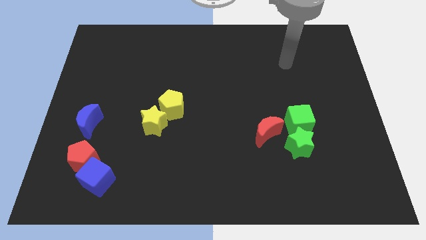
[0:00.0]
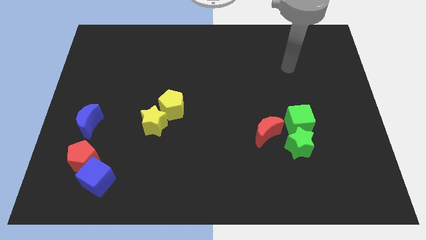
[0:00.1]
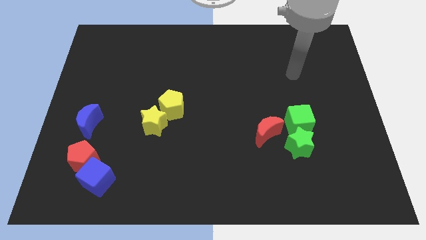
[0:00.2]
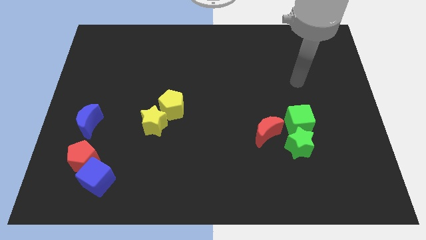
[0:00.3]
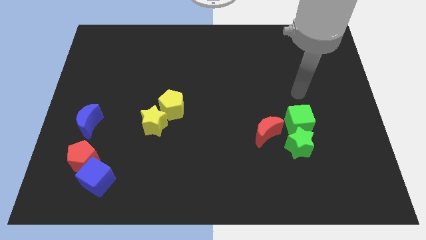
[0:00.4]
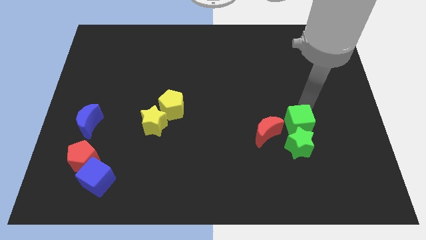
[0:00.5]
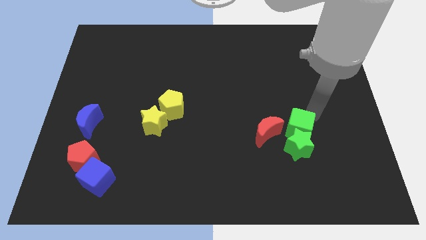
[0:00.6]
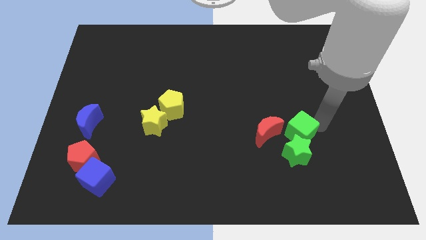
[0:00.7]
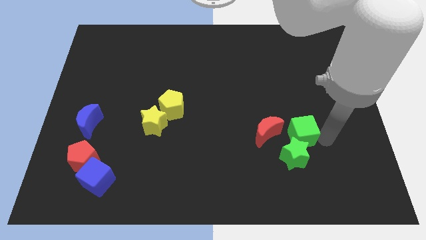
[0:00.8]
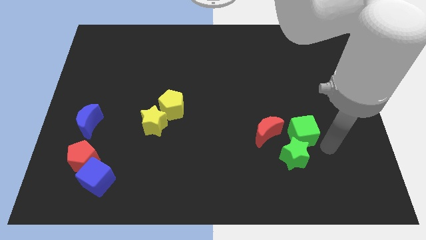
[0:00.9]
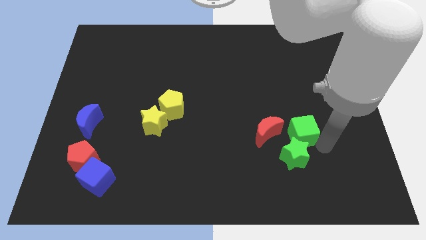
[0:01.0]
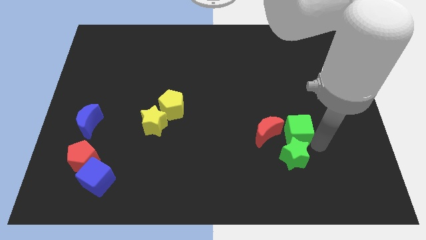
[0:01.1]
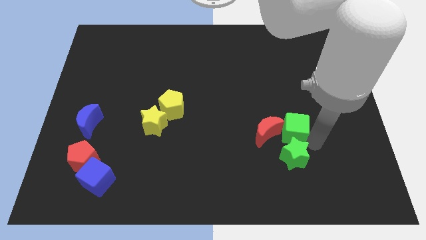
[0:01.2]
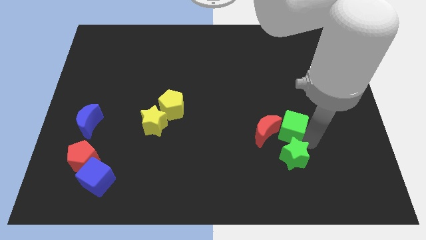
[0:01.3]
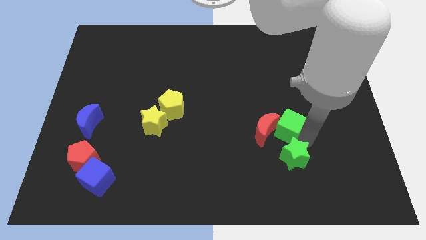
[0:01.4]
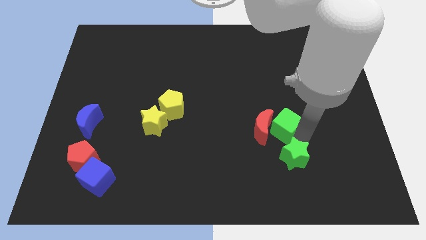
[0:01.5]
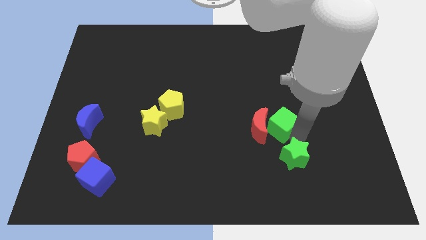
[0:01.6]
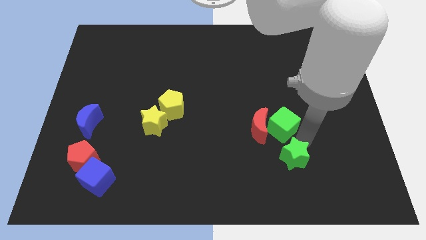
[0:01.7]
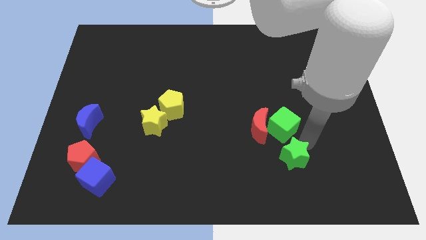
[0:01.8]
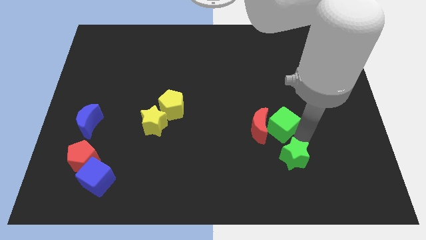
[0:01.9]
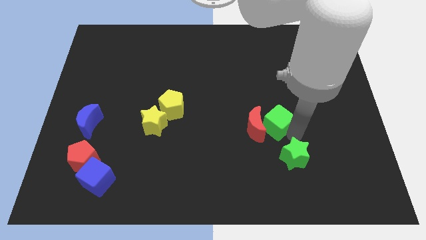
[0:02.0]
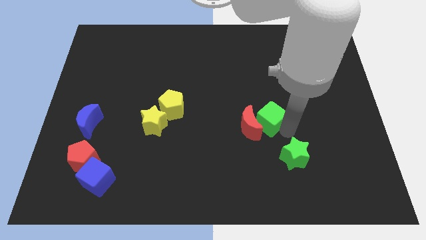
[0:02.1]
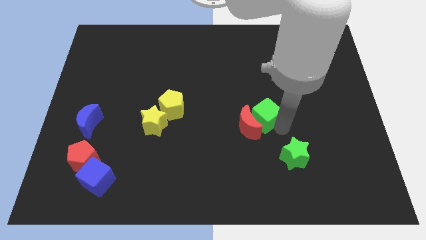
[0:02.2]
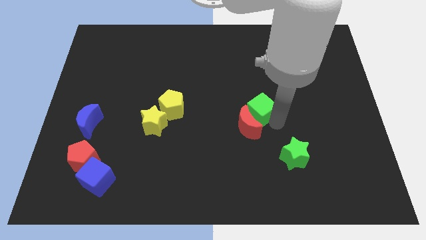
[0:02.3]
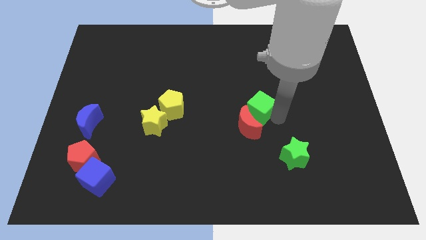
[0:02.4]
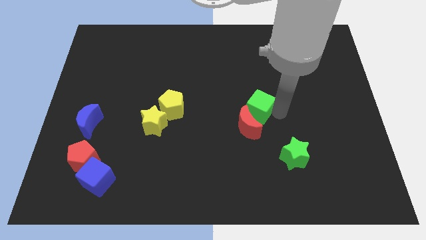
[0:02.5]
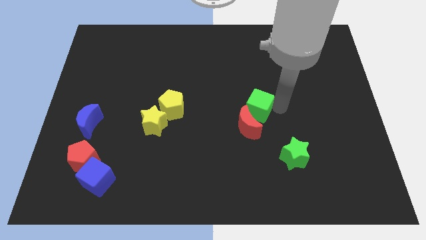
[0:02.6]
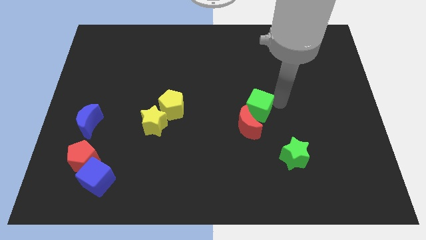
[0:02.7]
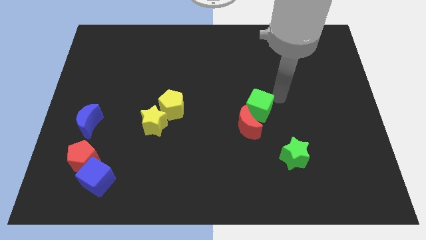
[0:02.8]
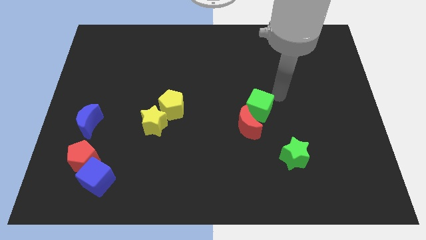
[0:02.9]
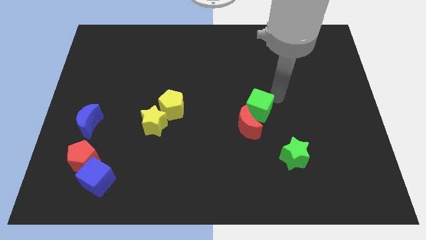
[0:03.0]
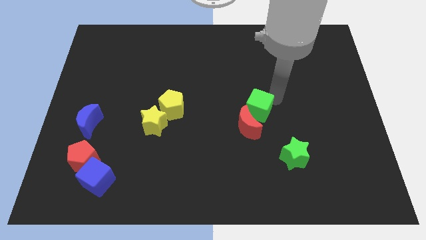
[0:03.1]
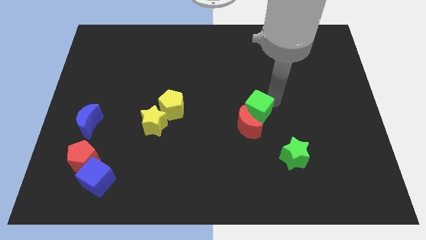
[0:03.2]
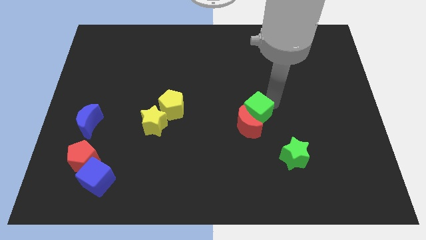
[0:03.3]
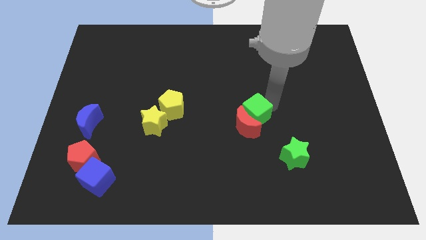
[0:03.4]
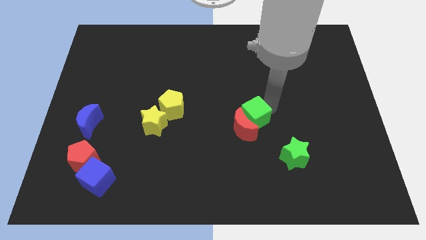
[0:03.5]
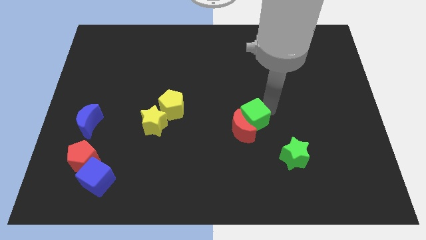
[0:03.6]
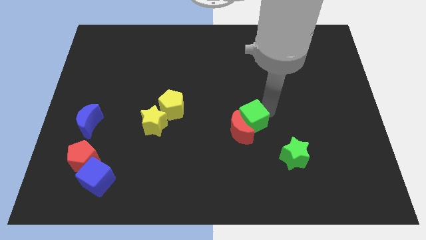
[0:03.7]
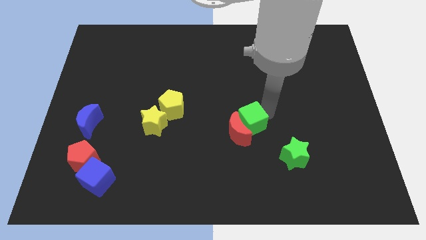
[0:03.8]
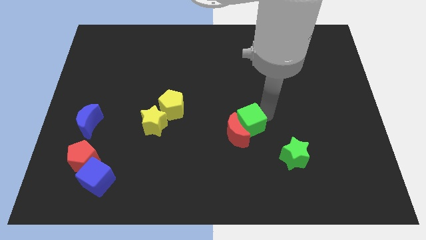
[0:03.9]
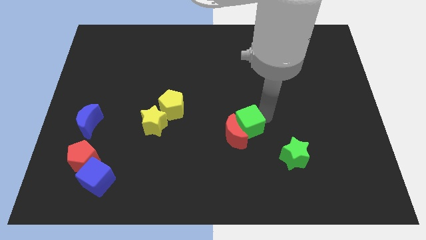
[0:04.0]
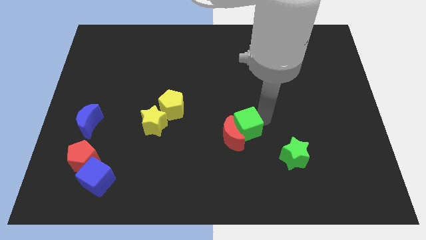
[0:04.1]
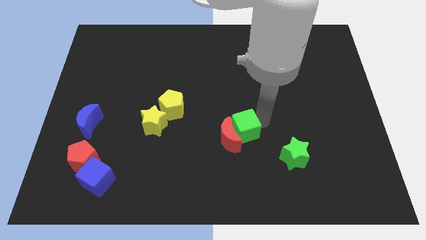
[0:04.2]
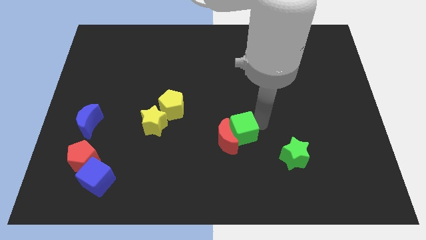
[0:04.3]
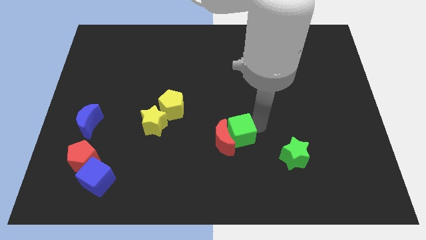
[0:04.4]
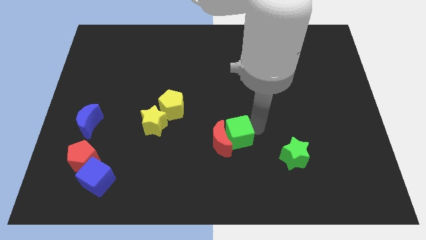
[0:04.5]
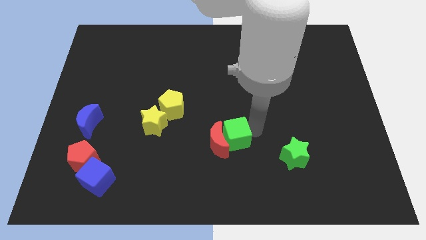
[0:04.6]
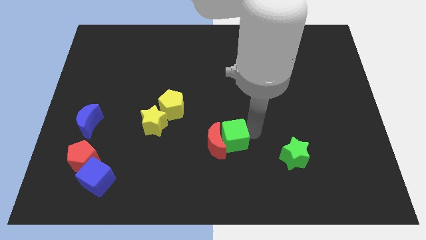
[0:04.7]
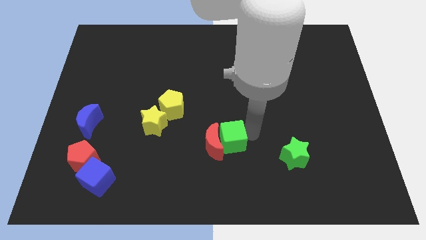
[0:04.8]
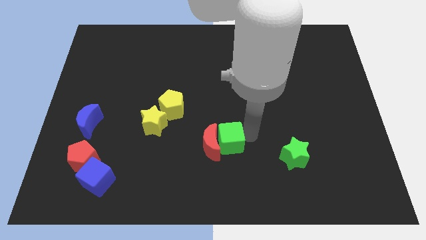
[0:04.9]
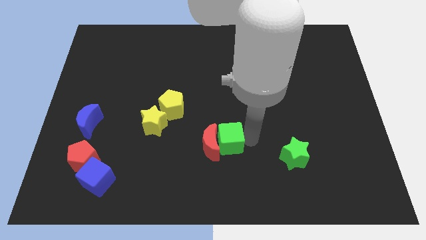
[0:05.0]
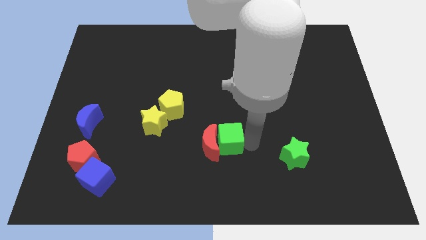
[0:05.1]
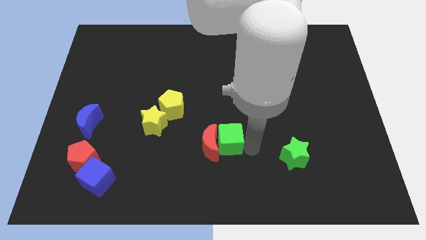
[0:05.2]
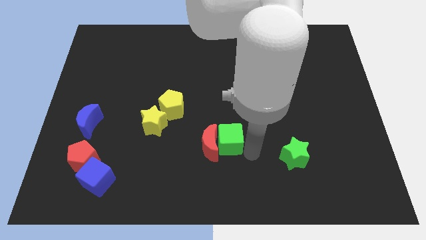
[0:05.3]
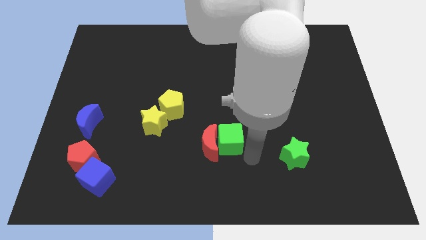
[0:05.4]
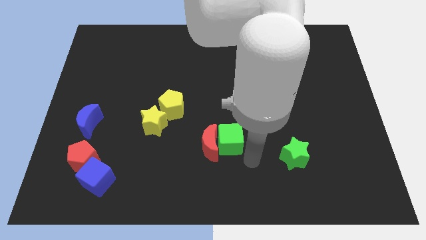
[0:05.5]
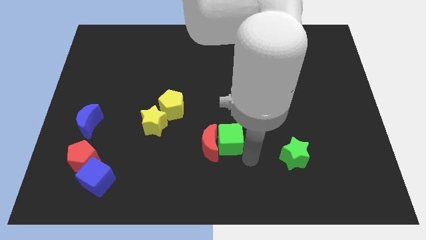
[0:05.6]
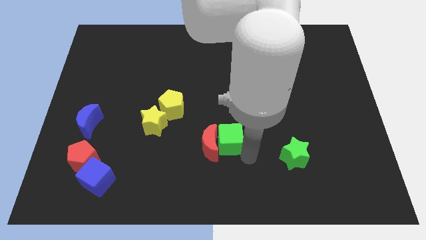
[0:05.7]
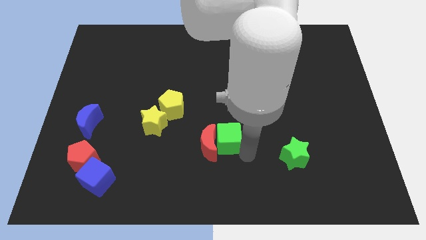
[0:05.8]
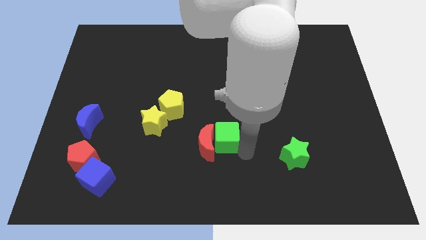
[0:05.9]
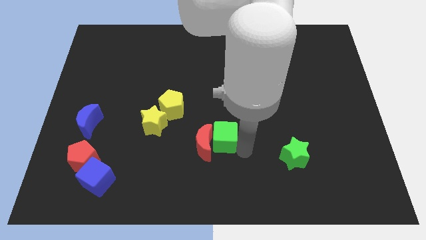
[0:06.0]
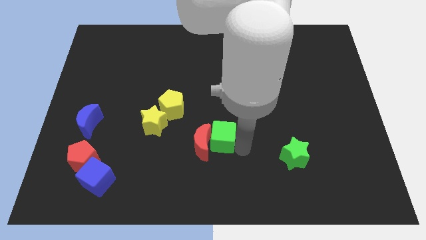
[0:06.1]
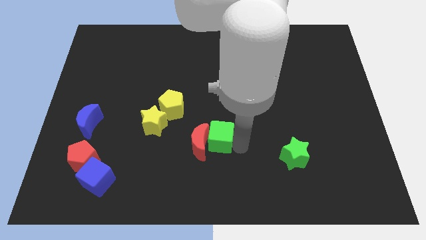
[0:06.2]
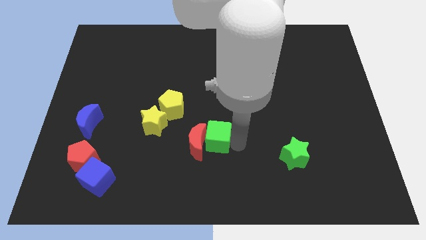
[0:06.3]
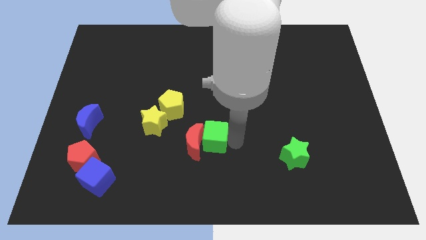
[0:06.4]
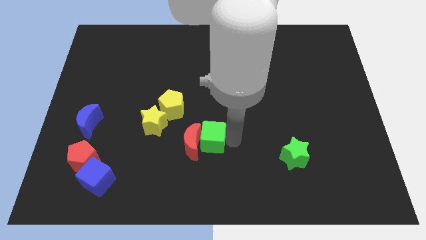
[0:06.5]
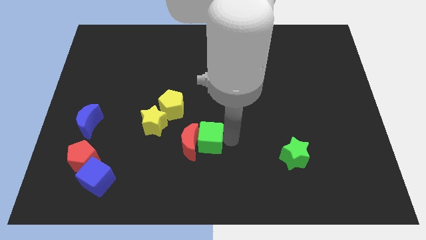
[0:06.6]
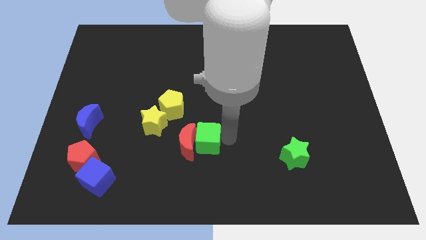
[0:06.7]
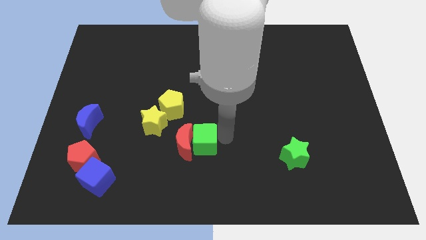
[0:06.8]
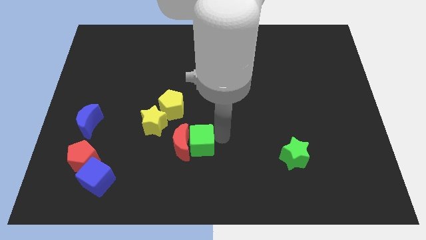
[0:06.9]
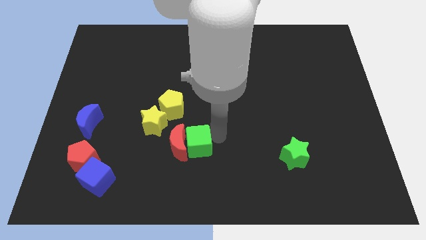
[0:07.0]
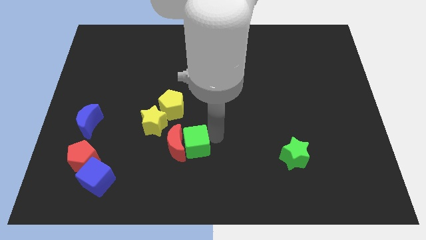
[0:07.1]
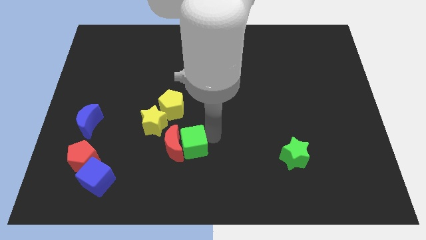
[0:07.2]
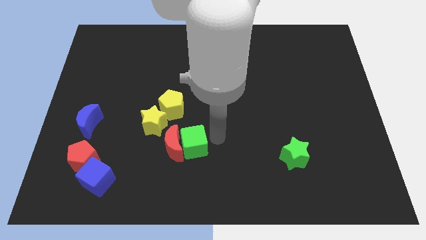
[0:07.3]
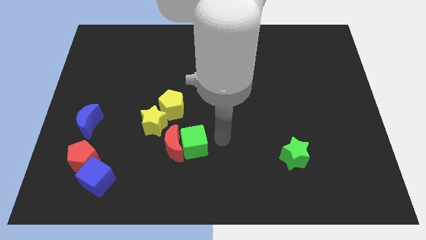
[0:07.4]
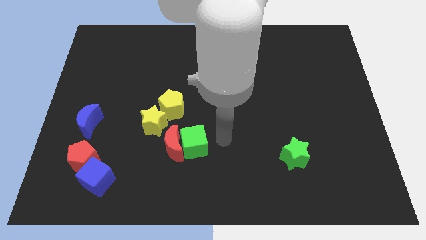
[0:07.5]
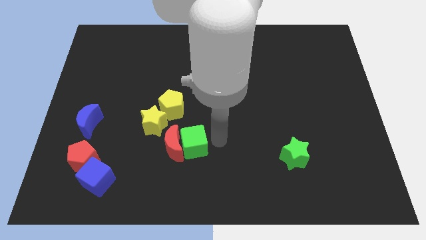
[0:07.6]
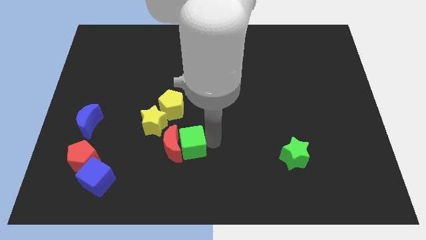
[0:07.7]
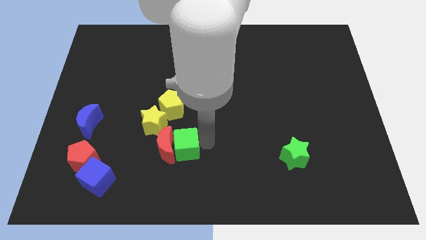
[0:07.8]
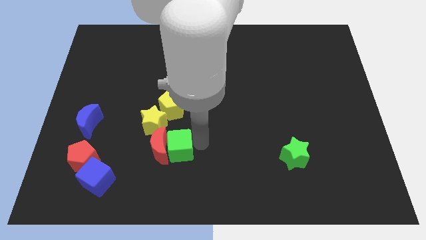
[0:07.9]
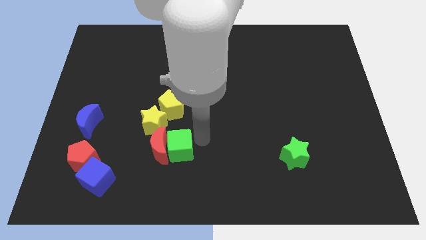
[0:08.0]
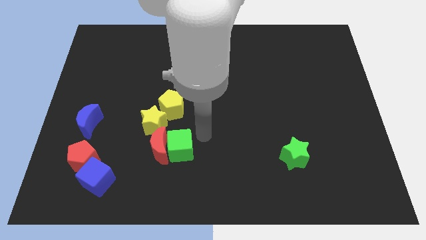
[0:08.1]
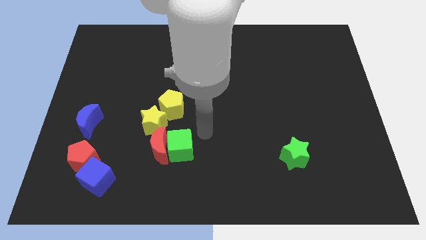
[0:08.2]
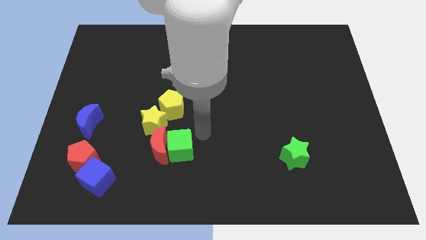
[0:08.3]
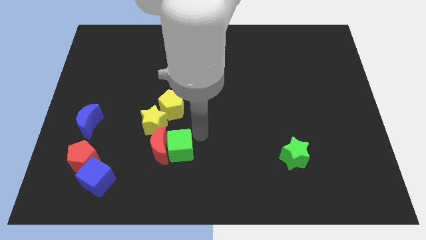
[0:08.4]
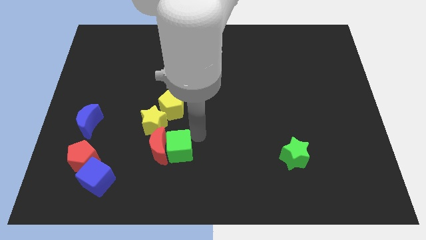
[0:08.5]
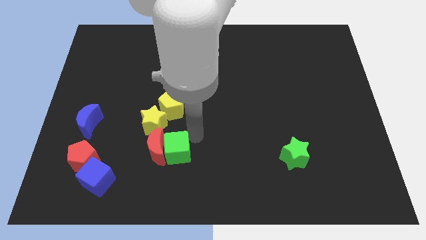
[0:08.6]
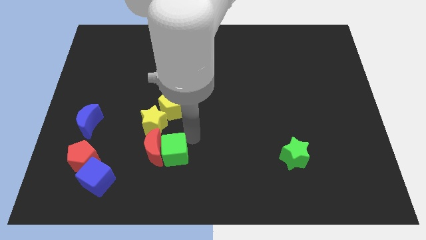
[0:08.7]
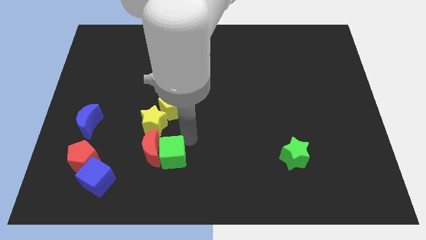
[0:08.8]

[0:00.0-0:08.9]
move the green cube below the yellow star
